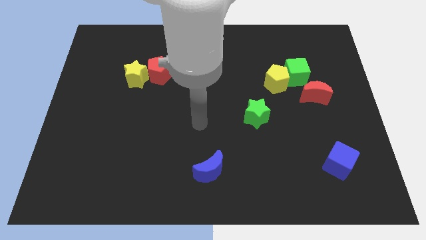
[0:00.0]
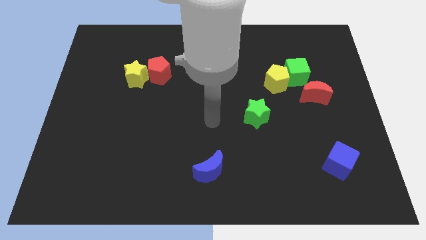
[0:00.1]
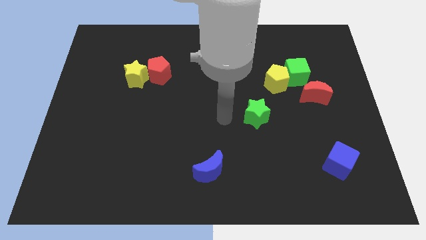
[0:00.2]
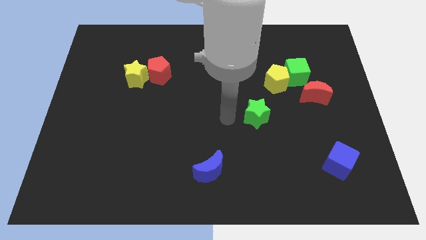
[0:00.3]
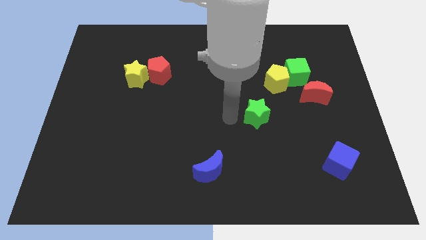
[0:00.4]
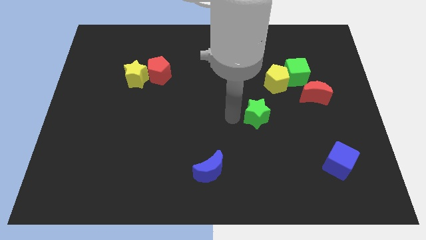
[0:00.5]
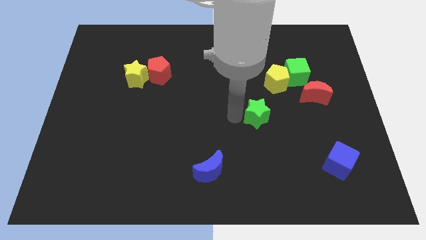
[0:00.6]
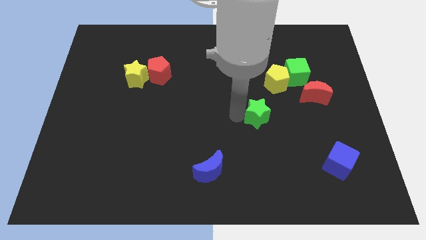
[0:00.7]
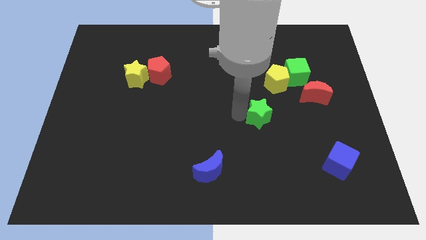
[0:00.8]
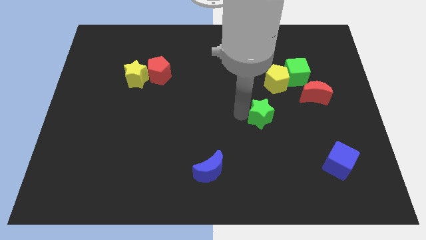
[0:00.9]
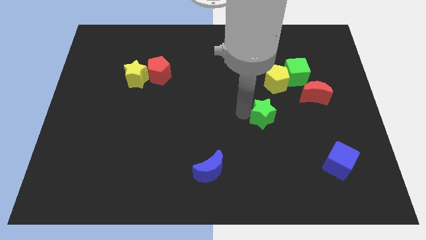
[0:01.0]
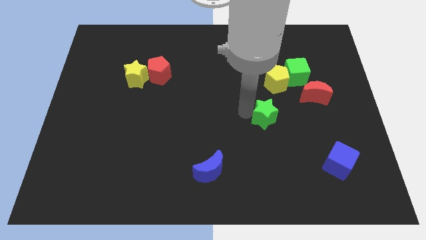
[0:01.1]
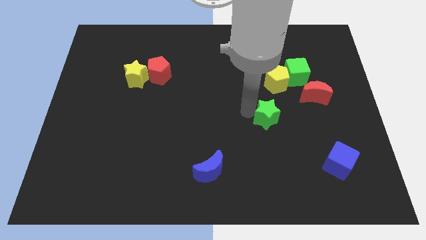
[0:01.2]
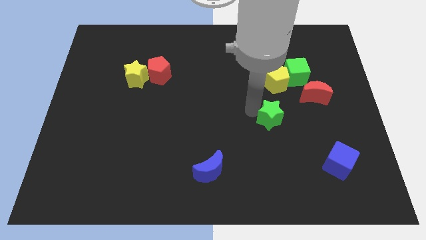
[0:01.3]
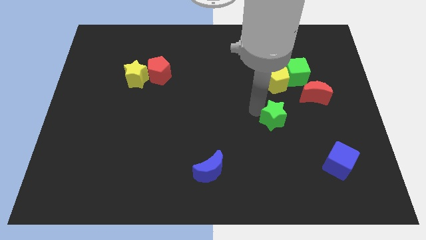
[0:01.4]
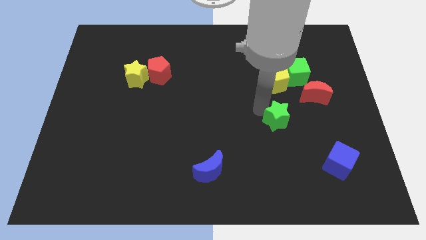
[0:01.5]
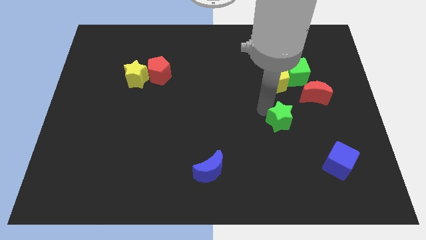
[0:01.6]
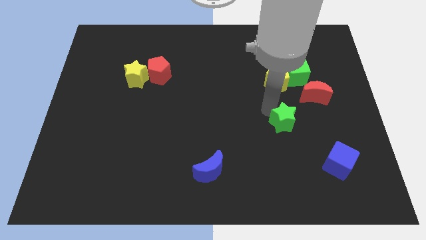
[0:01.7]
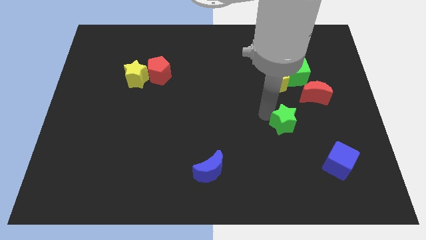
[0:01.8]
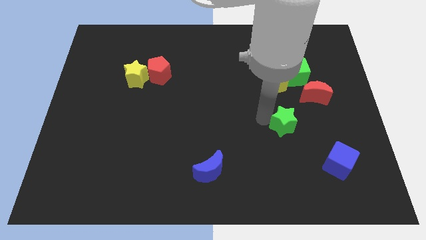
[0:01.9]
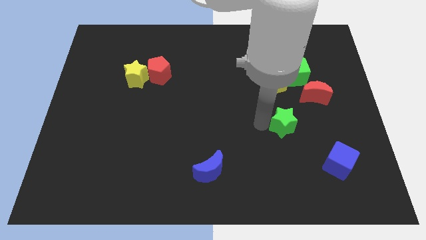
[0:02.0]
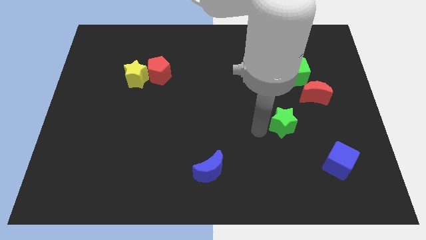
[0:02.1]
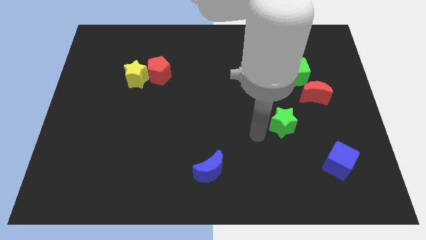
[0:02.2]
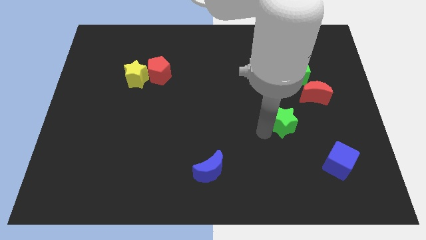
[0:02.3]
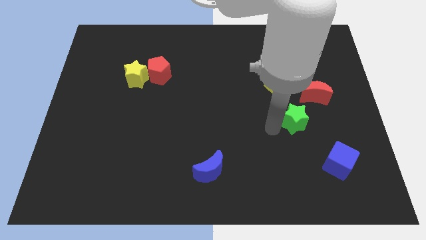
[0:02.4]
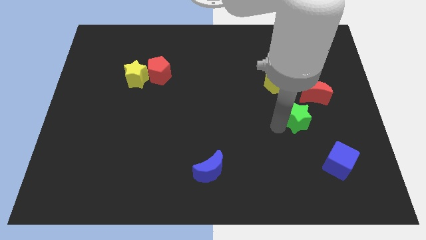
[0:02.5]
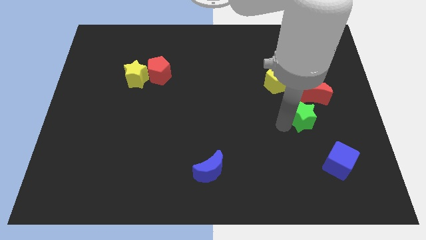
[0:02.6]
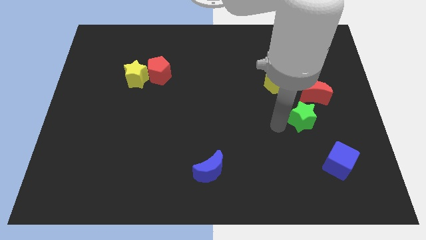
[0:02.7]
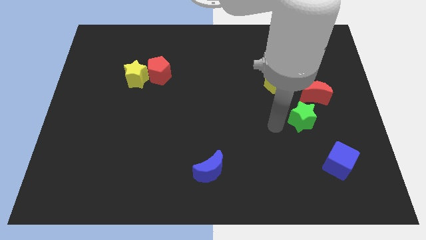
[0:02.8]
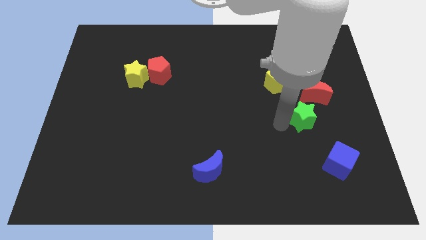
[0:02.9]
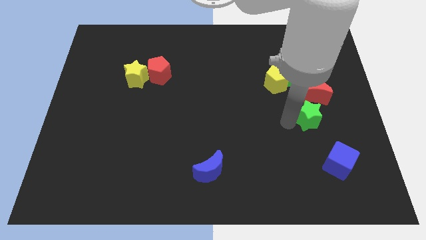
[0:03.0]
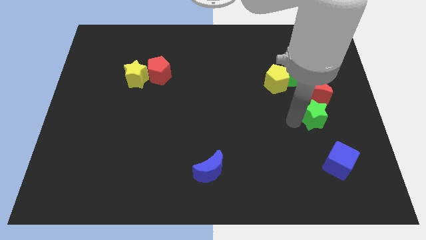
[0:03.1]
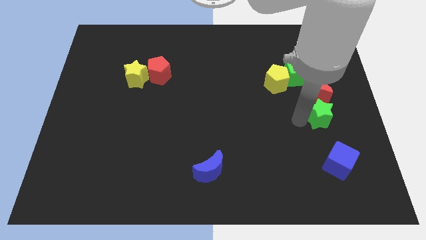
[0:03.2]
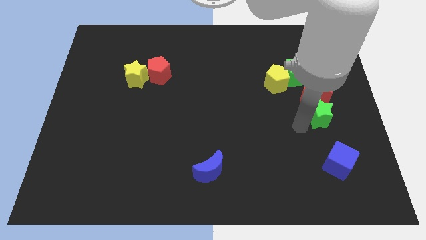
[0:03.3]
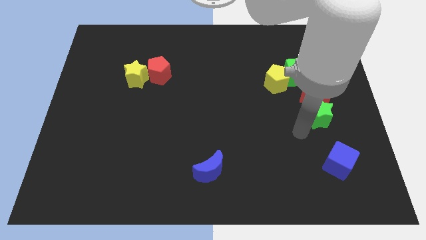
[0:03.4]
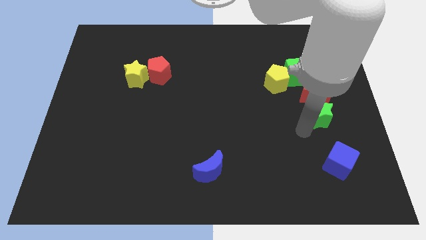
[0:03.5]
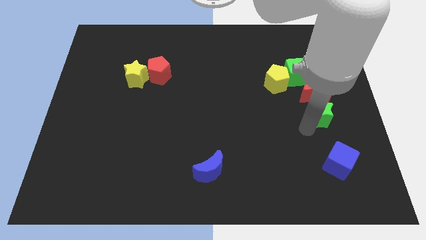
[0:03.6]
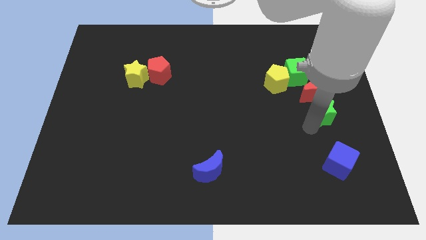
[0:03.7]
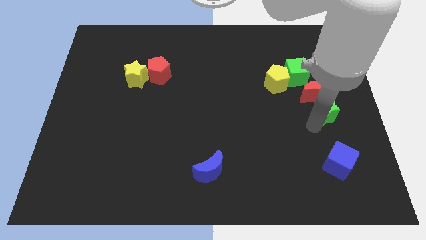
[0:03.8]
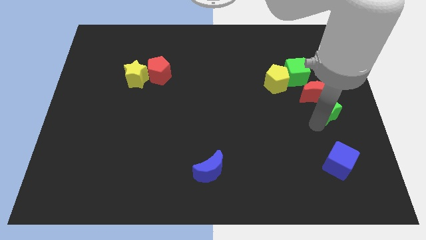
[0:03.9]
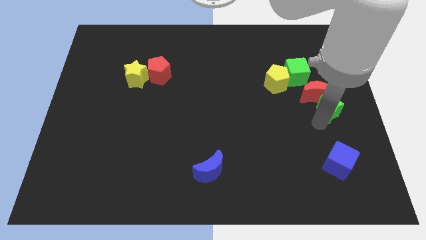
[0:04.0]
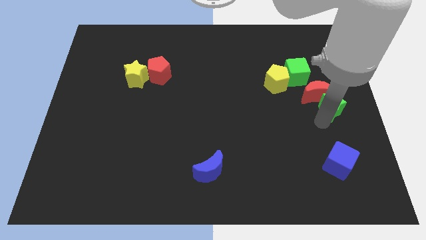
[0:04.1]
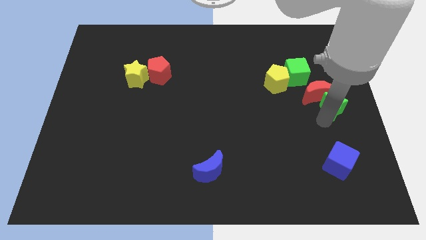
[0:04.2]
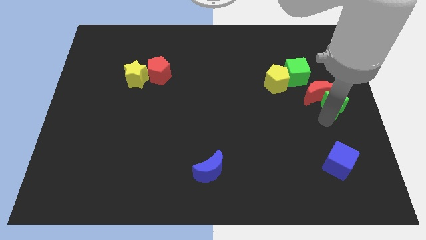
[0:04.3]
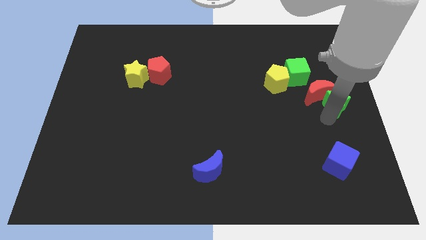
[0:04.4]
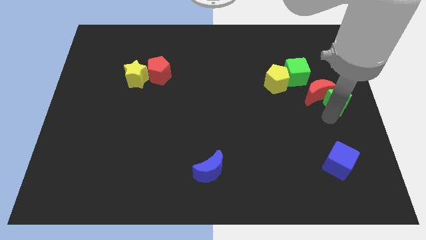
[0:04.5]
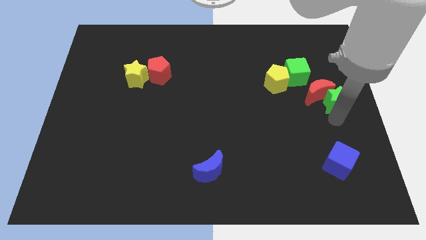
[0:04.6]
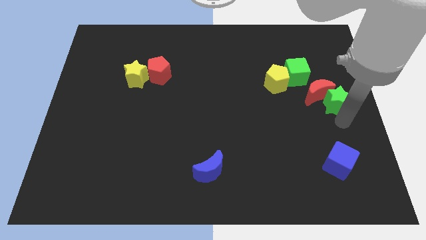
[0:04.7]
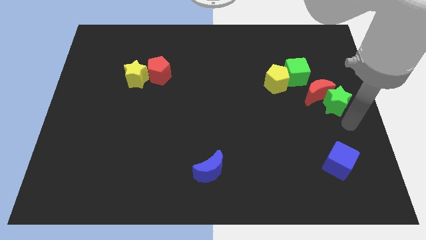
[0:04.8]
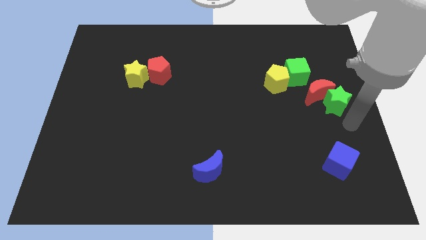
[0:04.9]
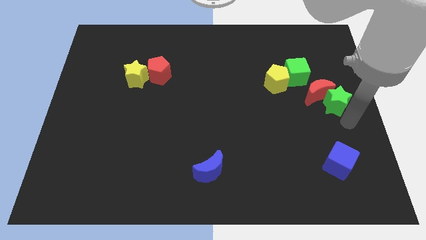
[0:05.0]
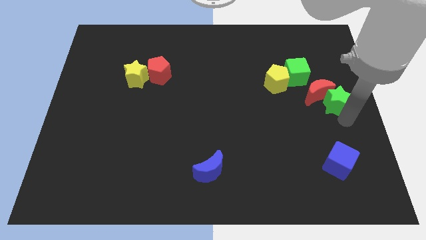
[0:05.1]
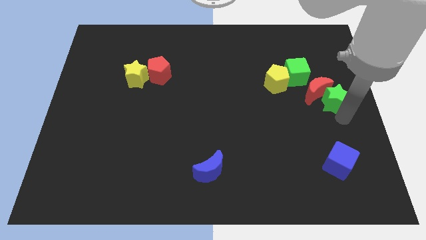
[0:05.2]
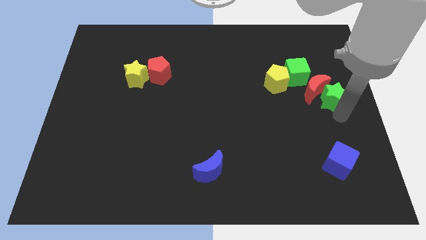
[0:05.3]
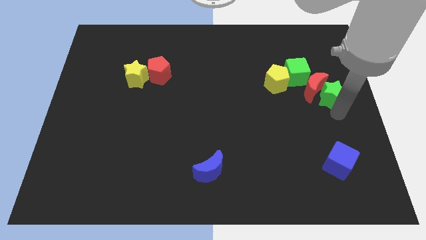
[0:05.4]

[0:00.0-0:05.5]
slide the green star to the right side of the yellow pentagon
